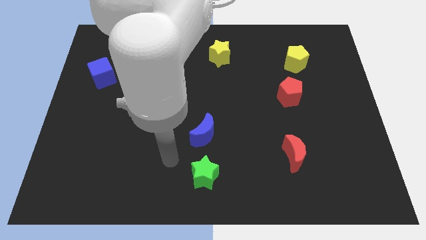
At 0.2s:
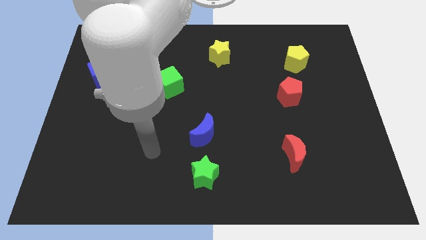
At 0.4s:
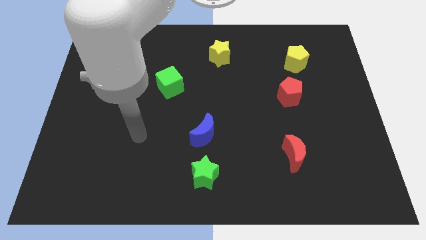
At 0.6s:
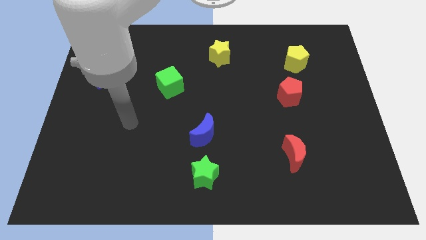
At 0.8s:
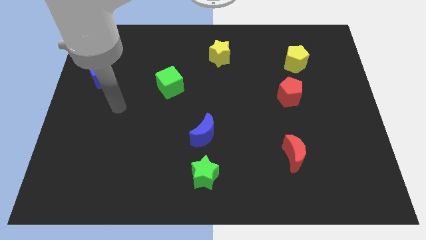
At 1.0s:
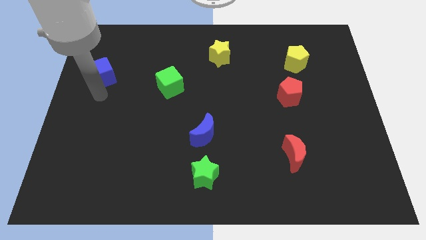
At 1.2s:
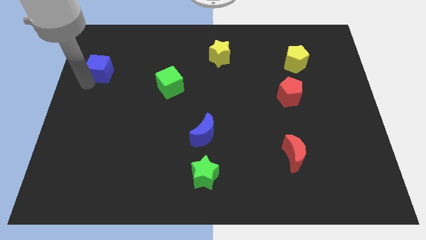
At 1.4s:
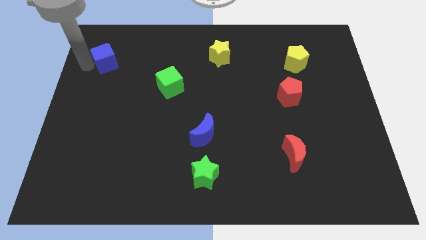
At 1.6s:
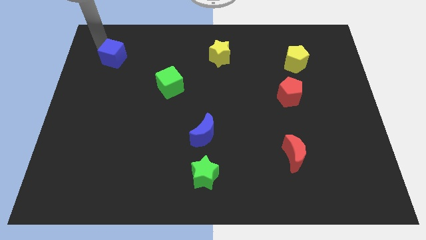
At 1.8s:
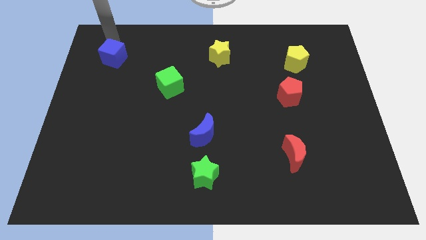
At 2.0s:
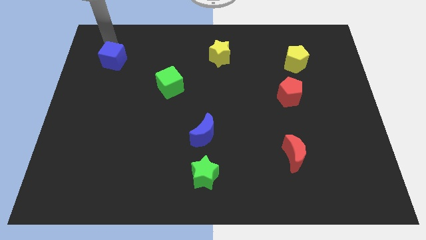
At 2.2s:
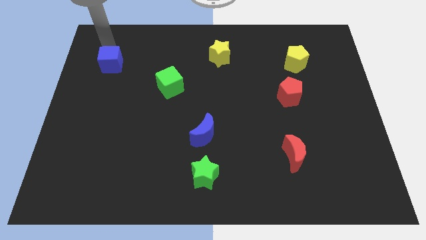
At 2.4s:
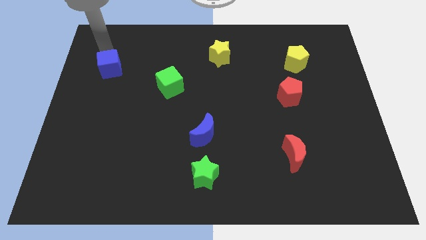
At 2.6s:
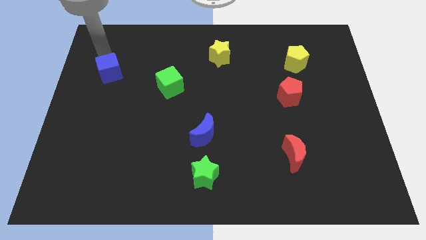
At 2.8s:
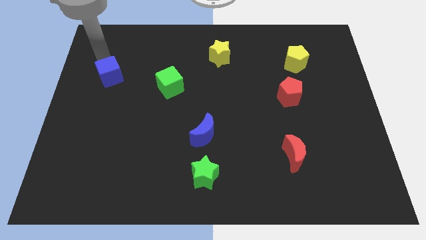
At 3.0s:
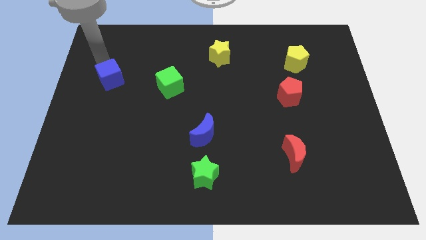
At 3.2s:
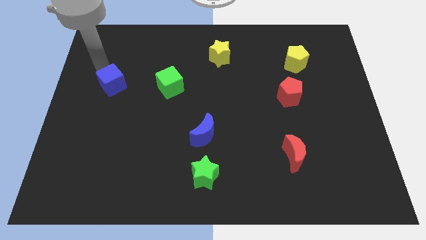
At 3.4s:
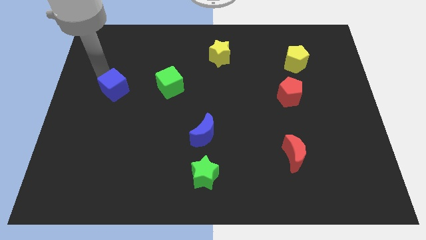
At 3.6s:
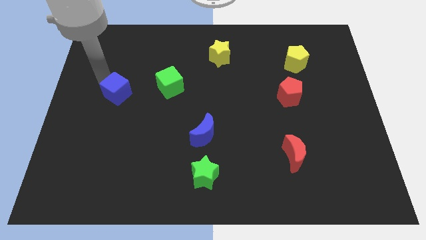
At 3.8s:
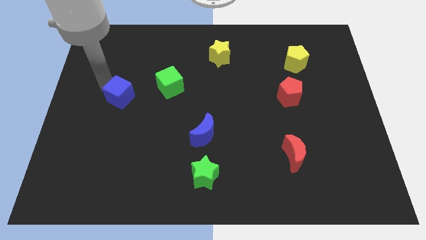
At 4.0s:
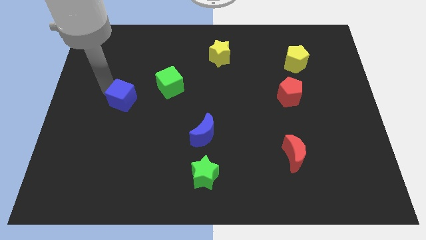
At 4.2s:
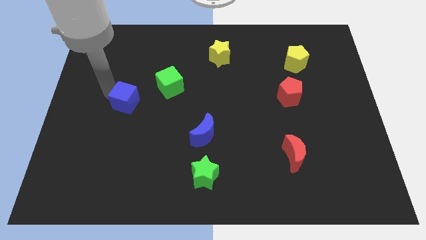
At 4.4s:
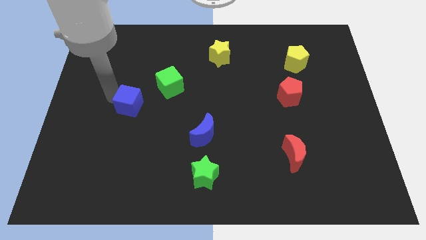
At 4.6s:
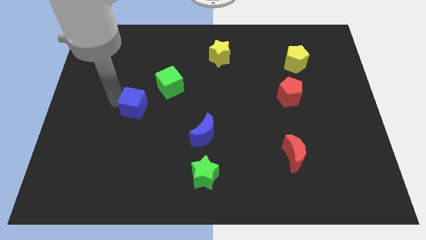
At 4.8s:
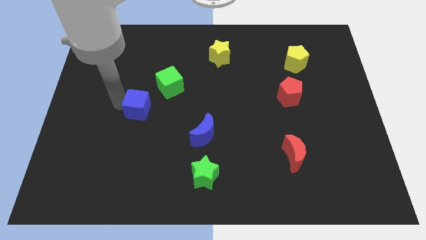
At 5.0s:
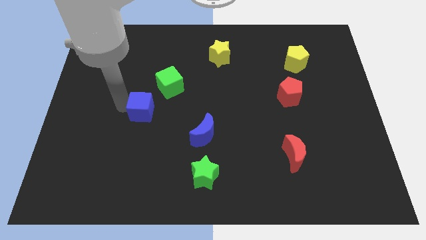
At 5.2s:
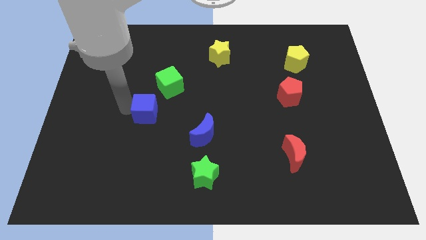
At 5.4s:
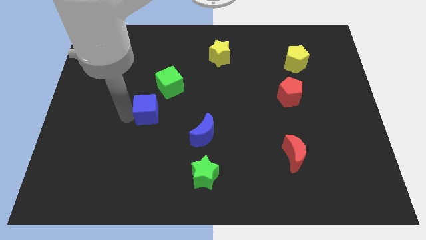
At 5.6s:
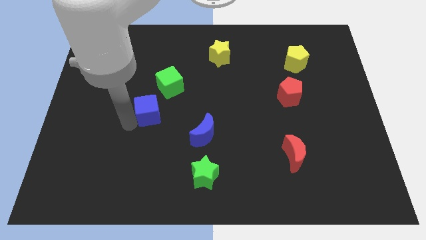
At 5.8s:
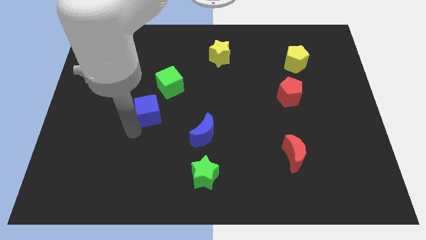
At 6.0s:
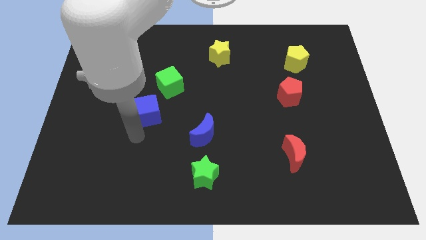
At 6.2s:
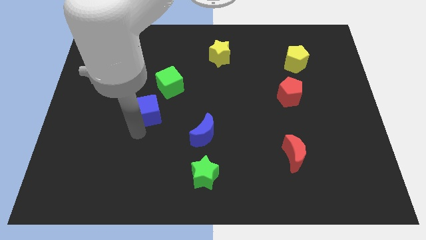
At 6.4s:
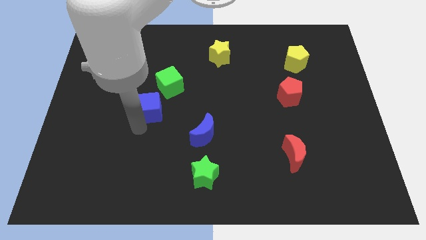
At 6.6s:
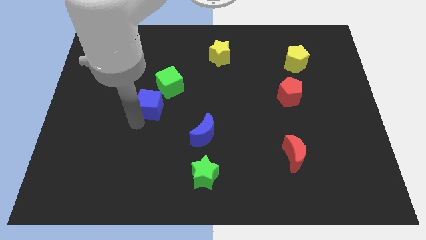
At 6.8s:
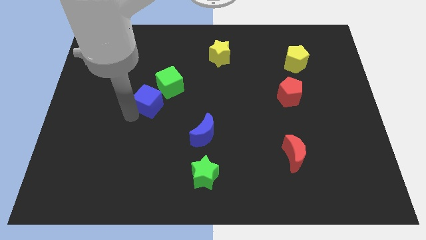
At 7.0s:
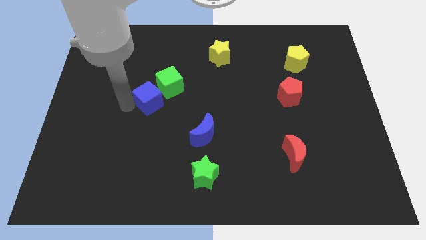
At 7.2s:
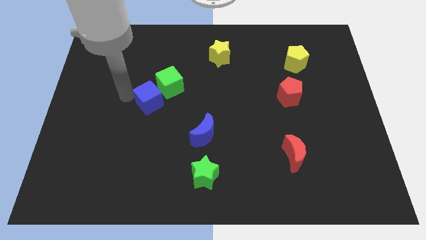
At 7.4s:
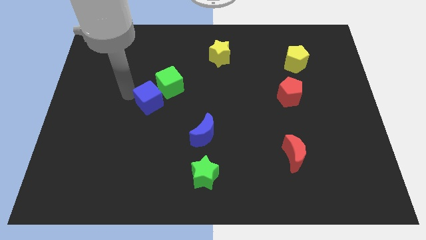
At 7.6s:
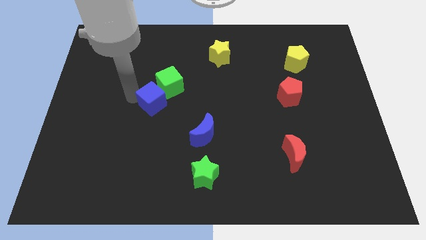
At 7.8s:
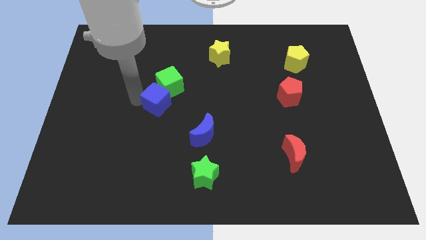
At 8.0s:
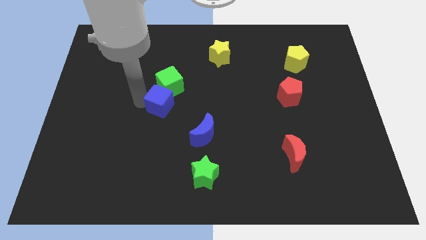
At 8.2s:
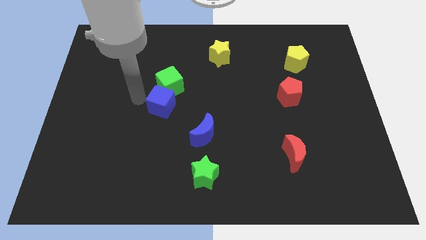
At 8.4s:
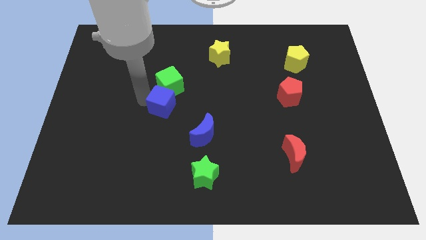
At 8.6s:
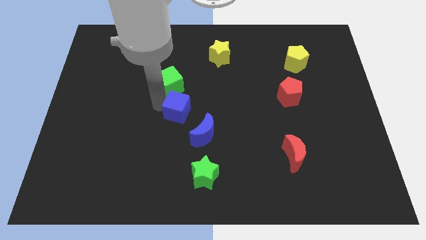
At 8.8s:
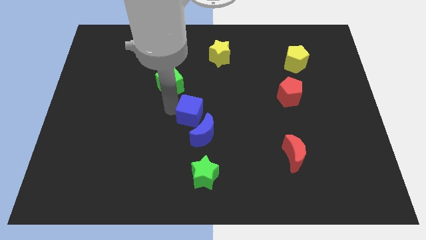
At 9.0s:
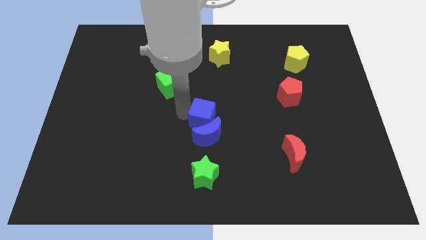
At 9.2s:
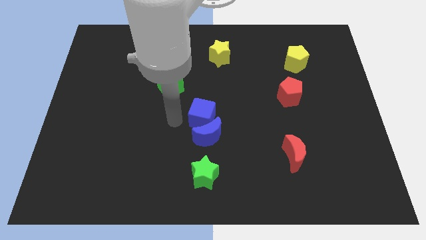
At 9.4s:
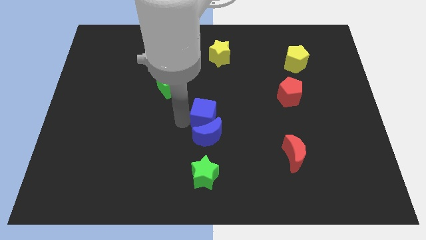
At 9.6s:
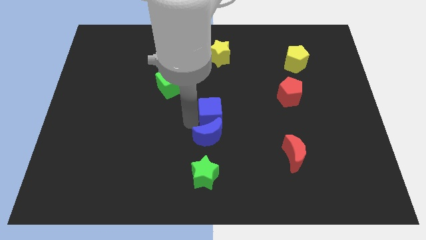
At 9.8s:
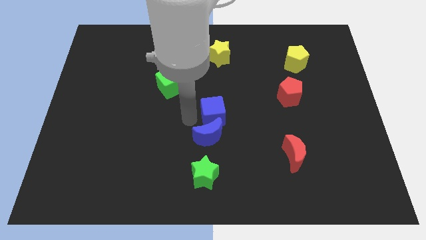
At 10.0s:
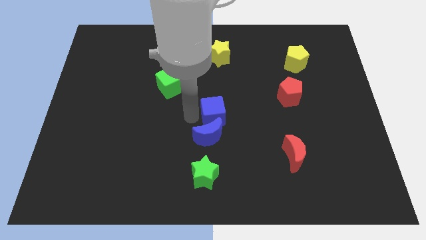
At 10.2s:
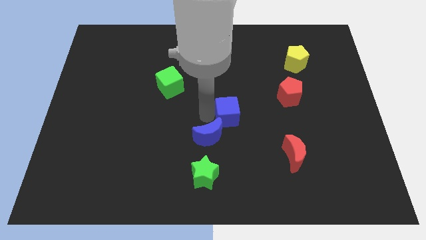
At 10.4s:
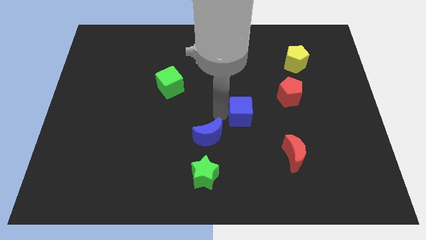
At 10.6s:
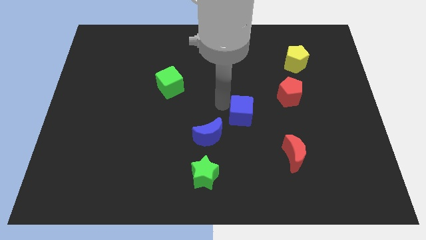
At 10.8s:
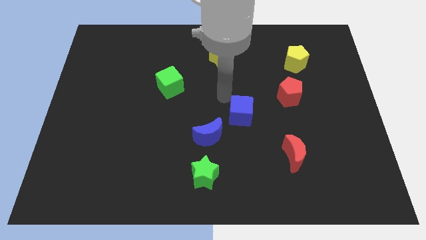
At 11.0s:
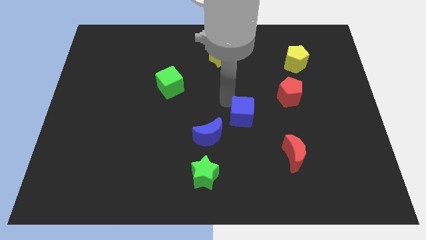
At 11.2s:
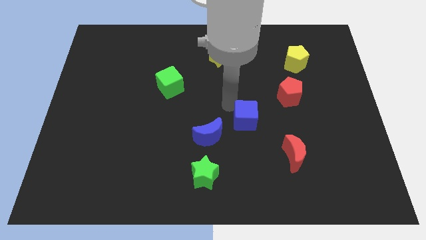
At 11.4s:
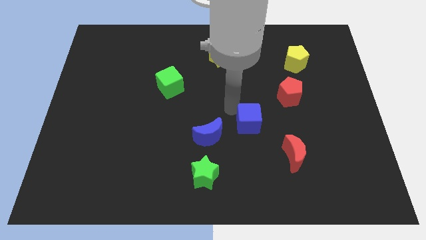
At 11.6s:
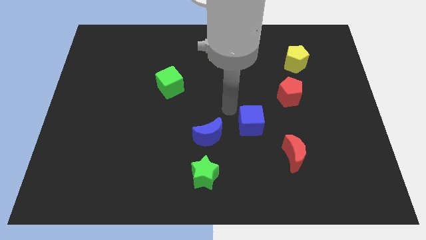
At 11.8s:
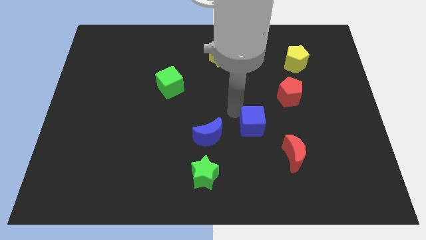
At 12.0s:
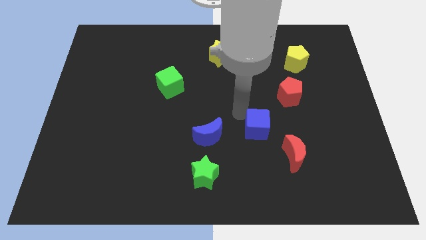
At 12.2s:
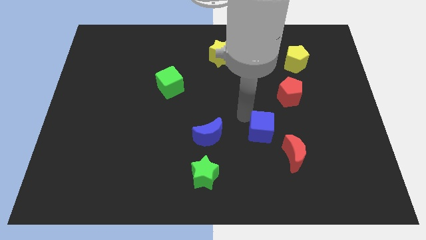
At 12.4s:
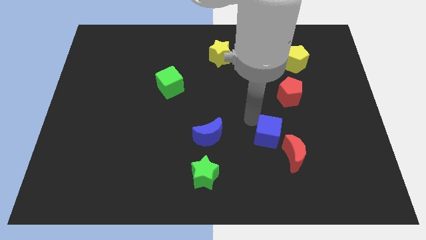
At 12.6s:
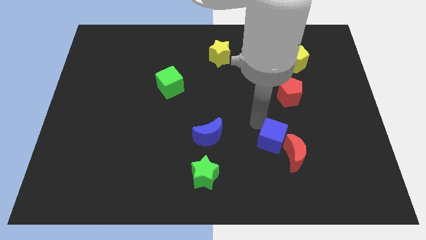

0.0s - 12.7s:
put the blue cube to the red moon
